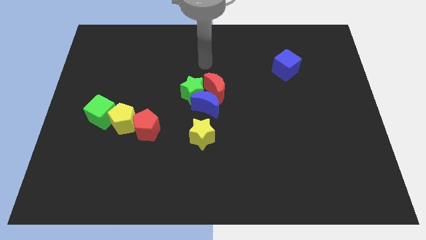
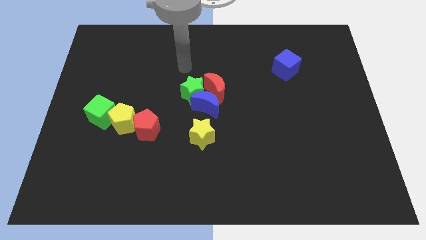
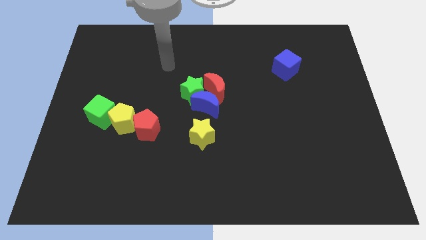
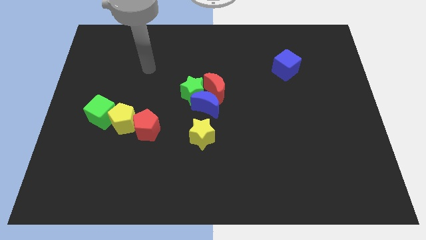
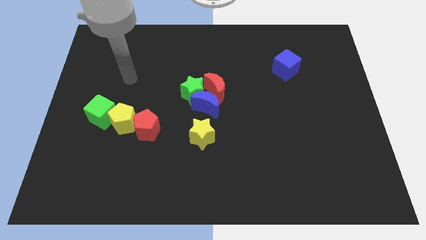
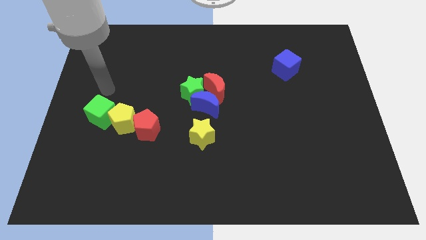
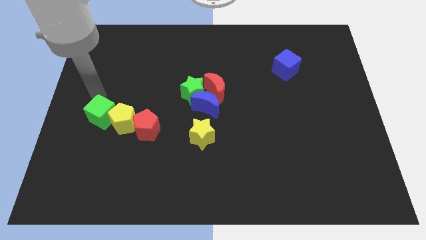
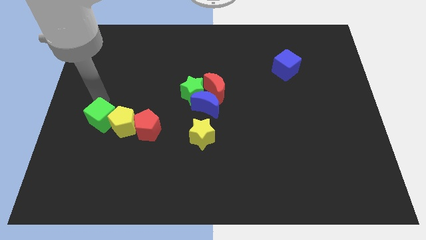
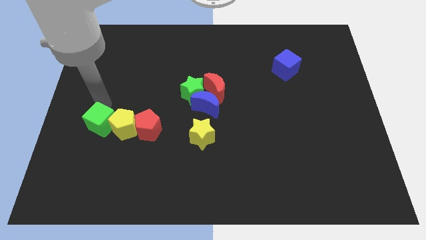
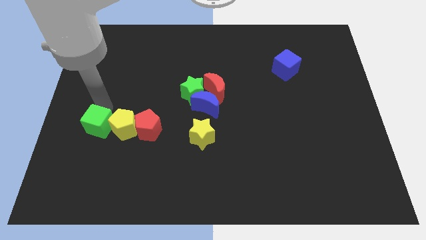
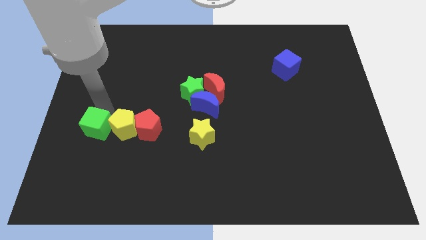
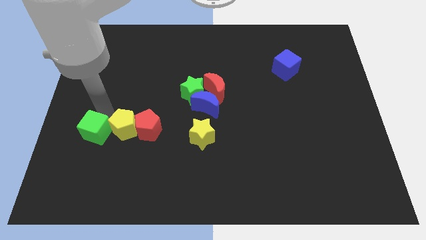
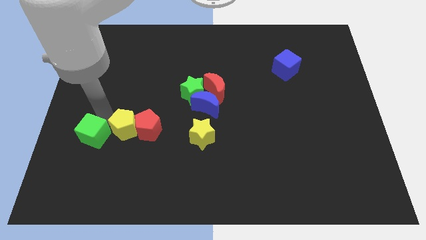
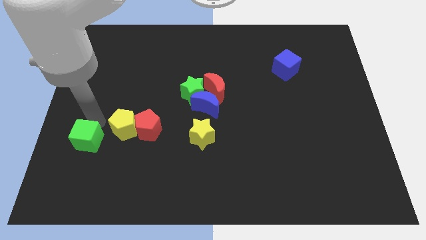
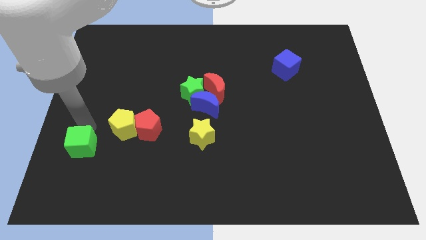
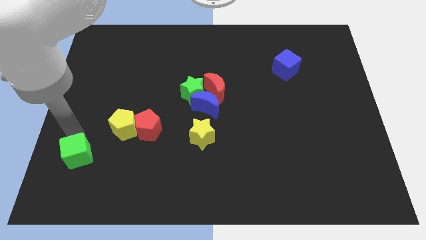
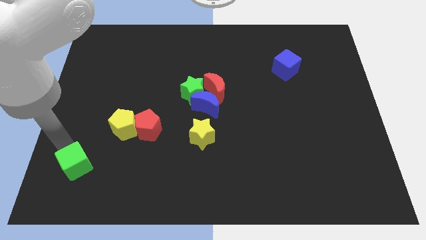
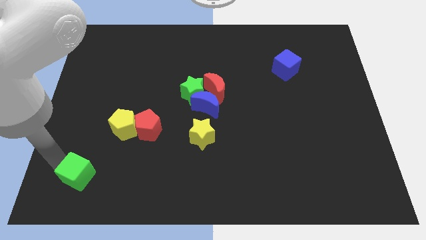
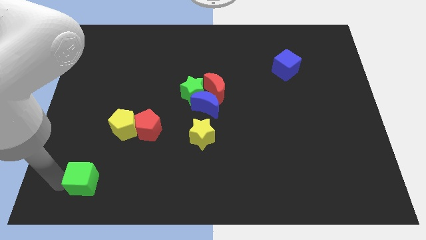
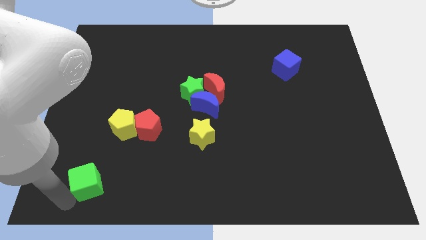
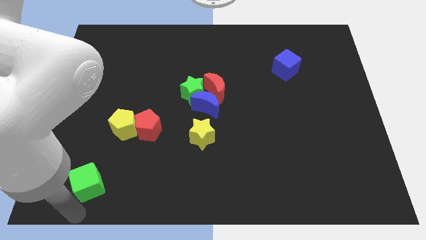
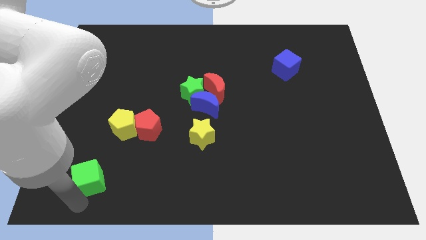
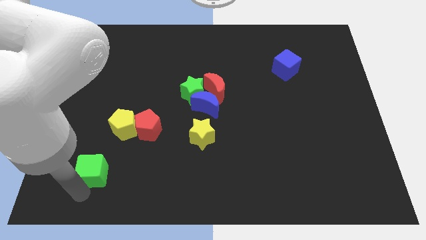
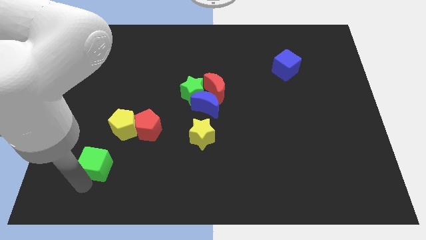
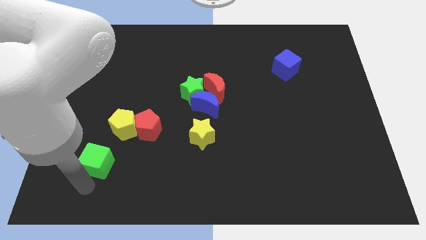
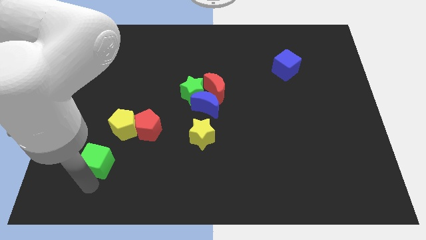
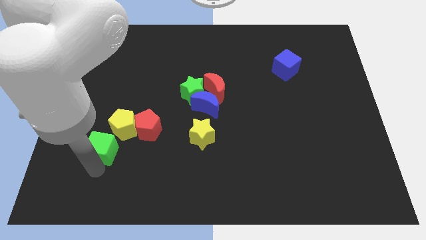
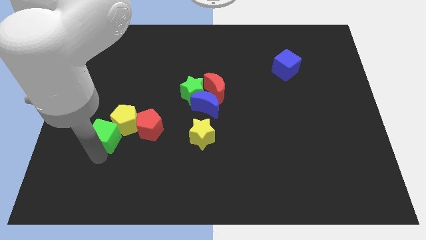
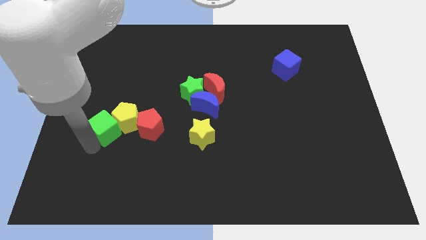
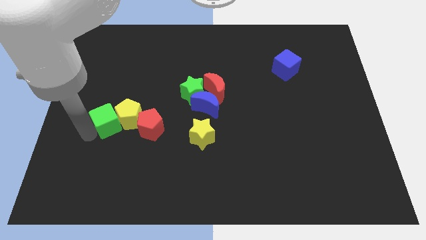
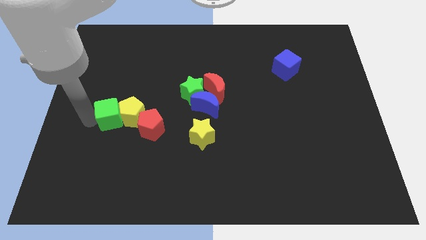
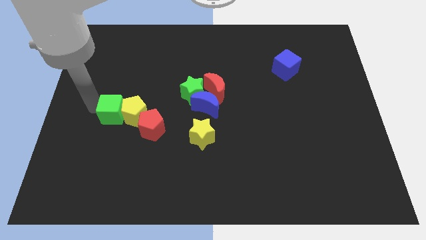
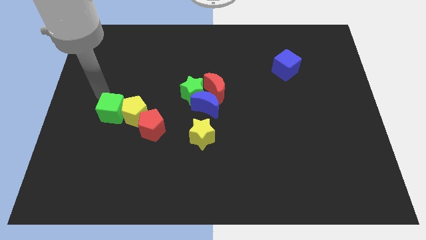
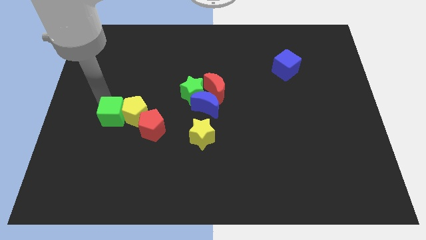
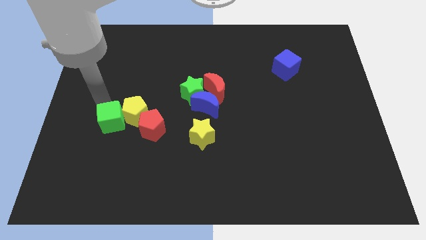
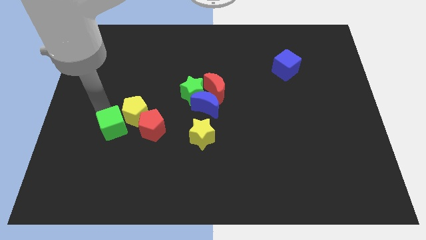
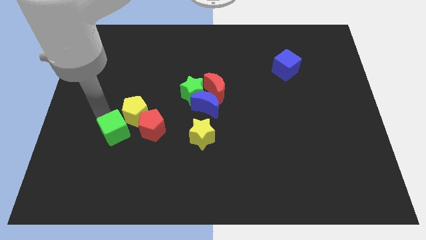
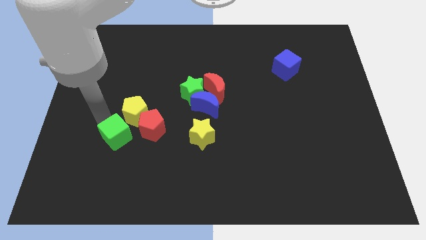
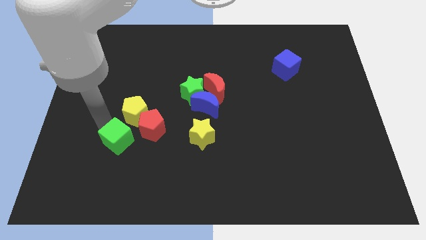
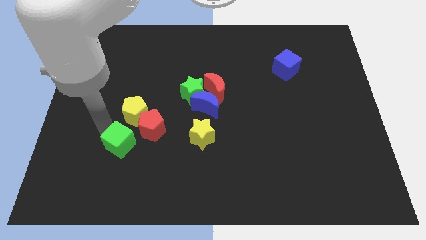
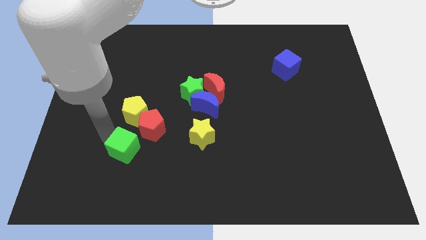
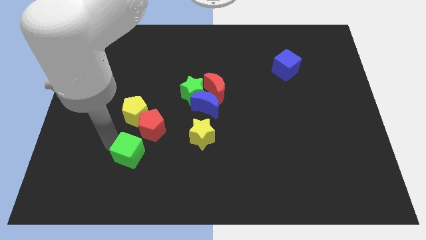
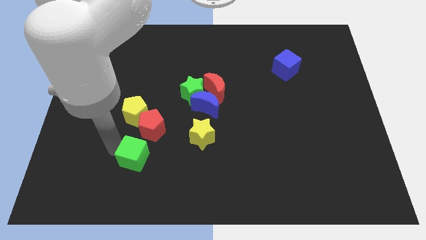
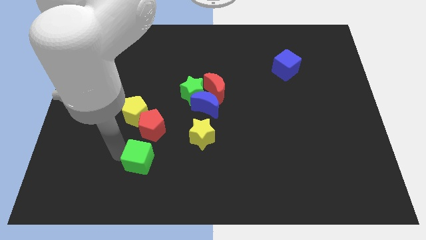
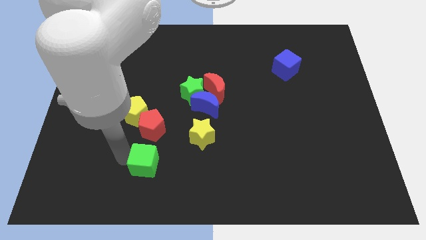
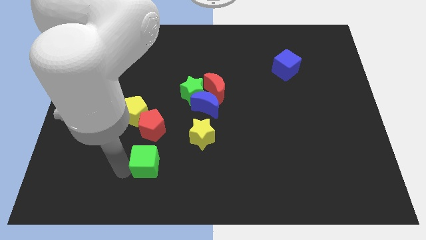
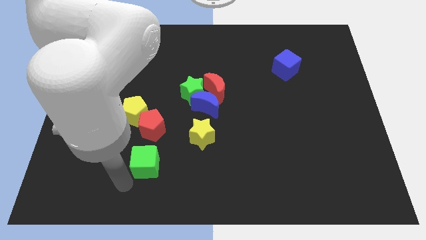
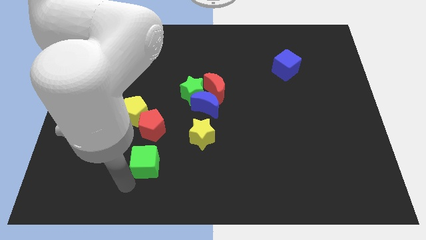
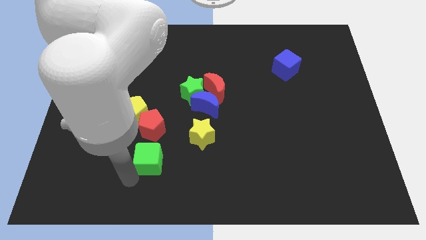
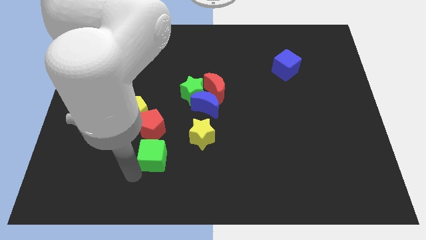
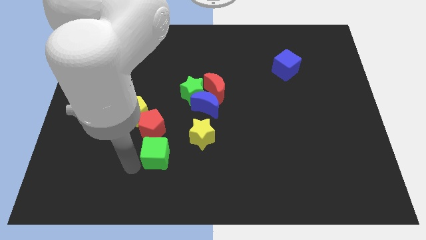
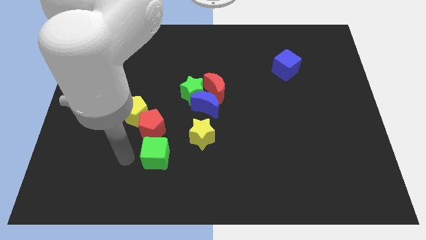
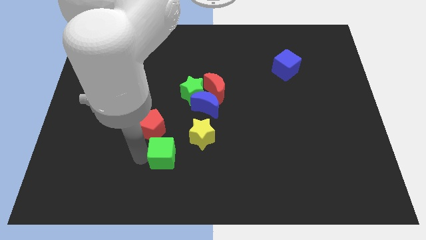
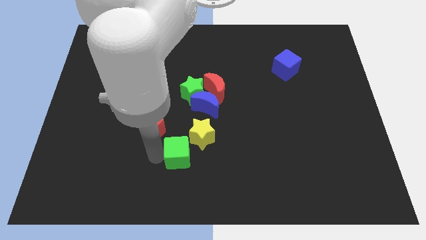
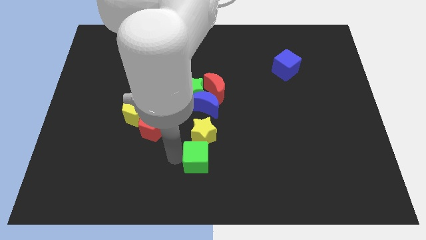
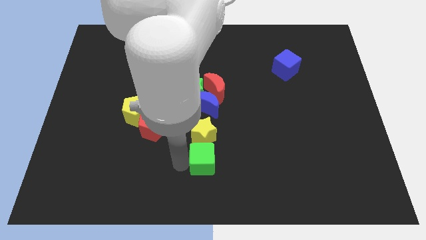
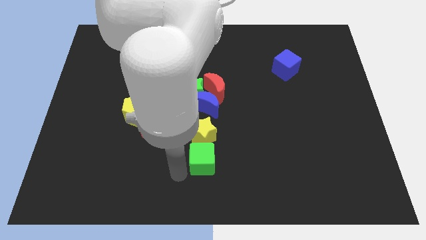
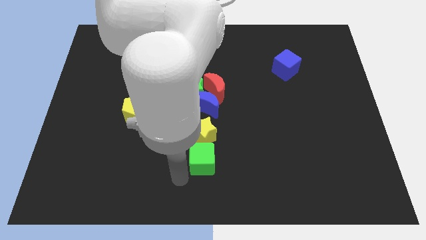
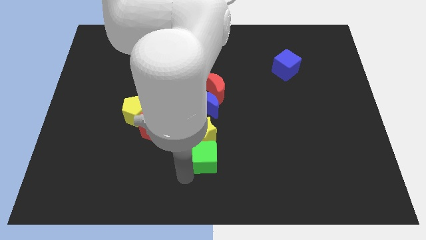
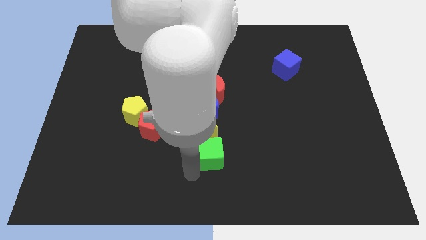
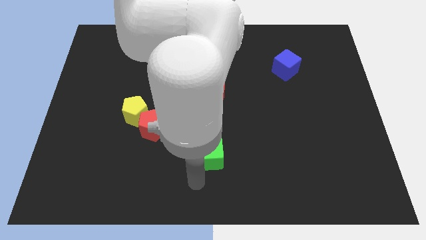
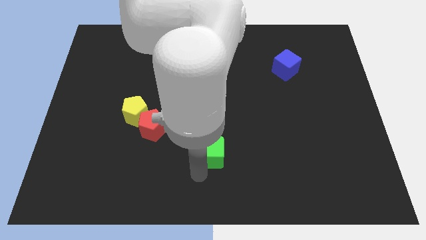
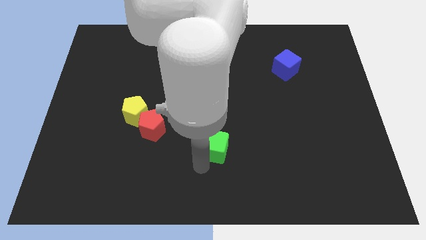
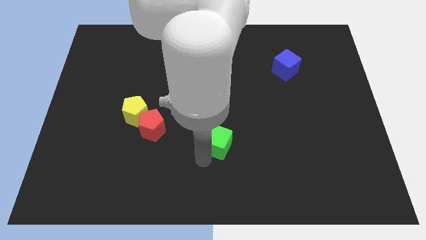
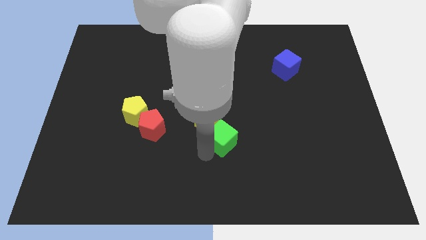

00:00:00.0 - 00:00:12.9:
slide the green cube to the bottom right of the blue moon
